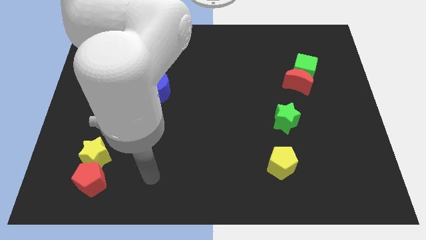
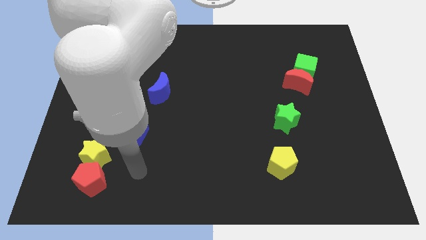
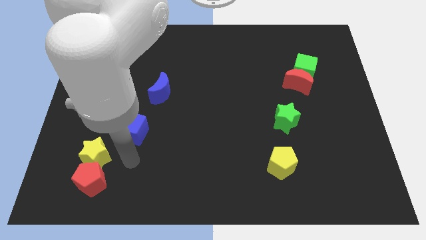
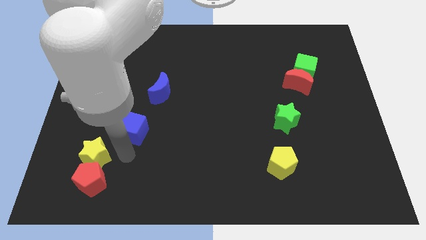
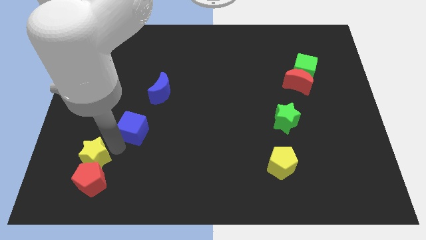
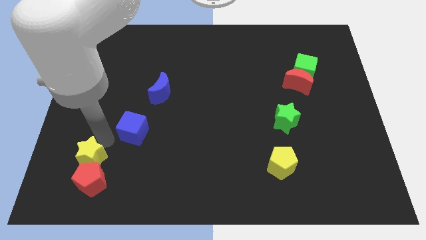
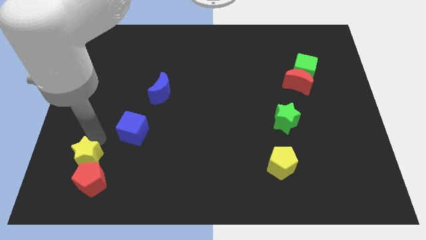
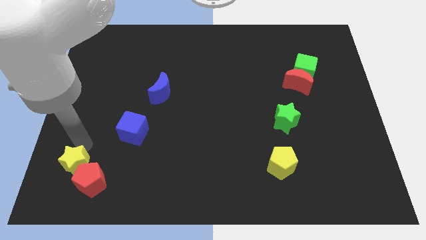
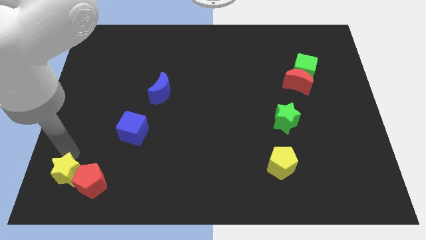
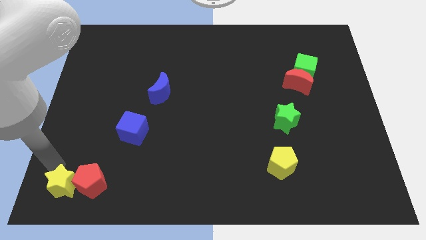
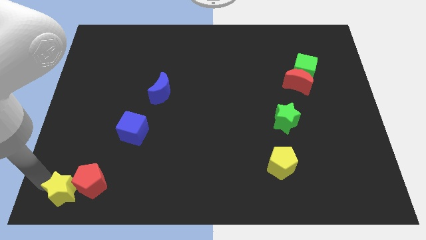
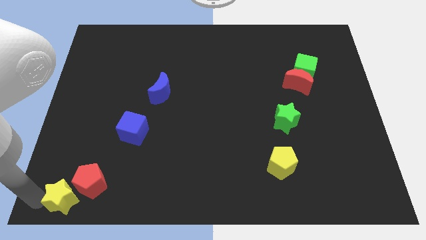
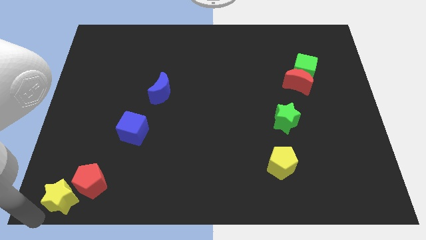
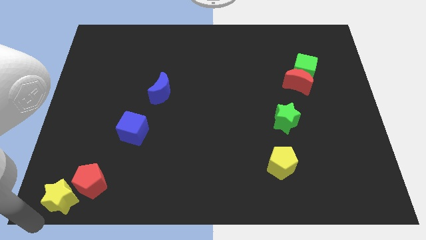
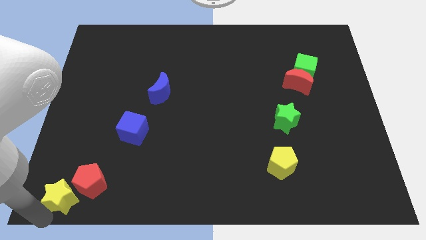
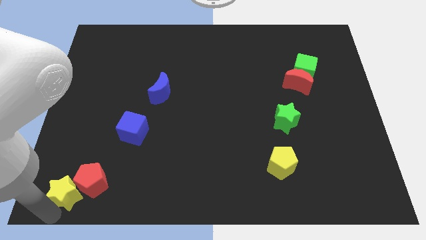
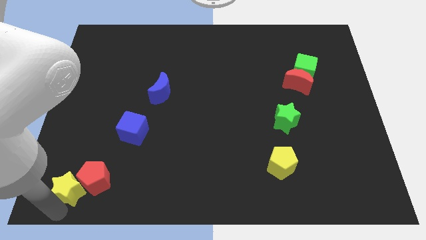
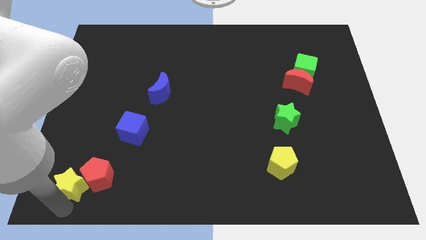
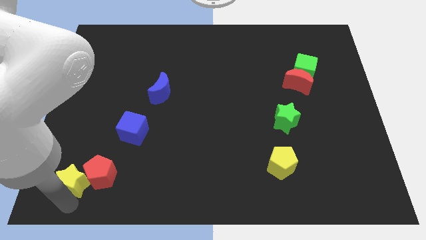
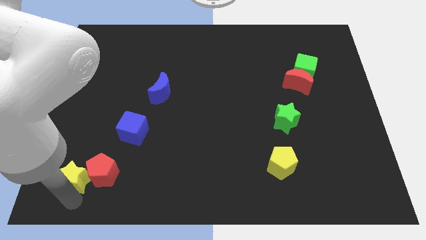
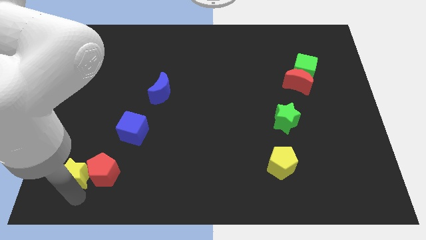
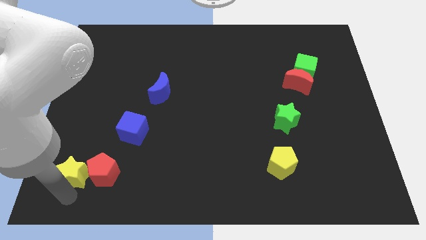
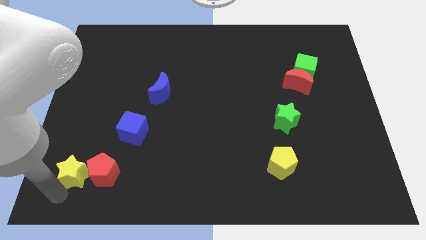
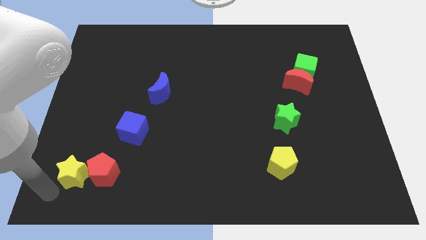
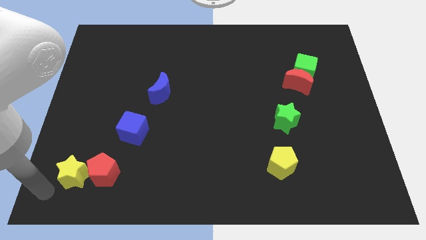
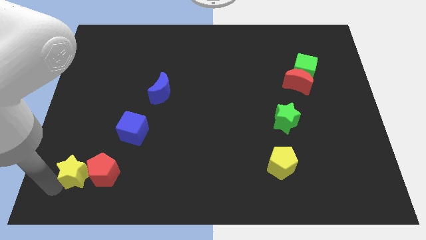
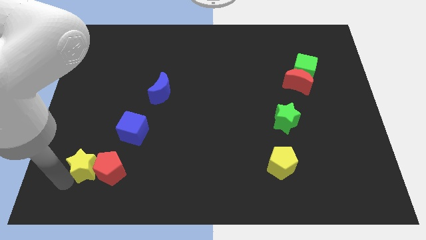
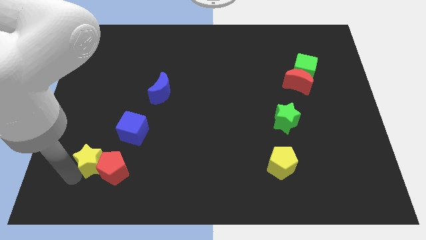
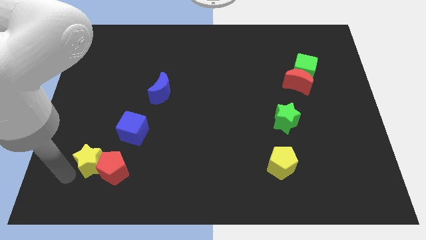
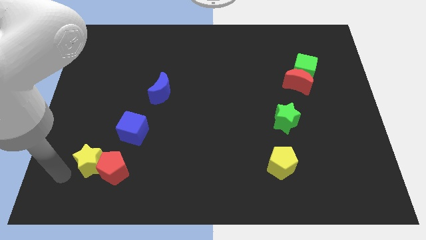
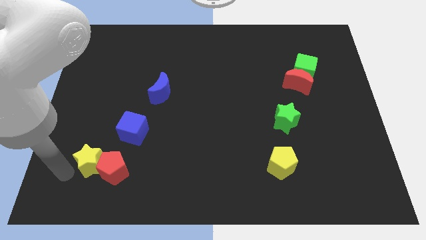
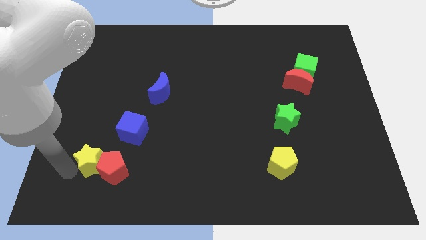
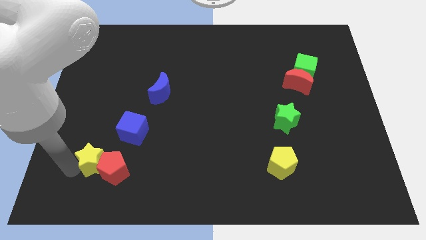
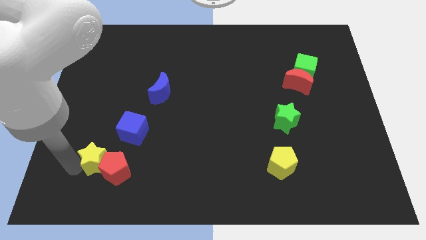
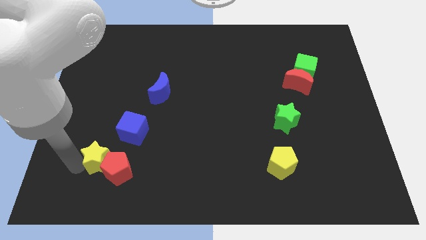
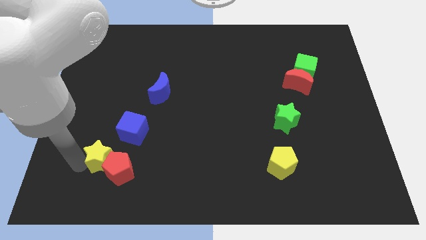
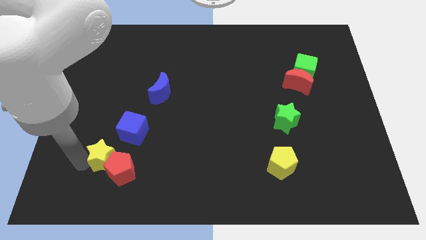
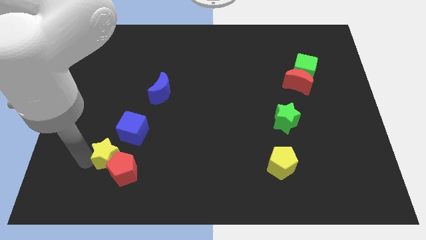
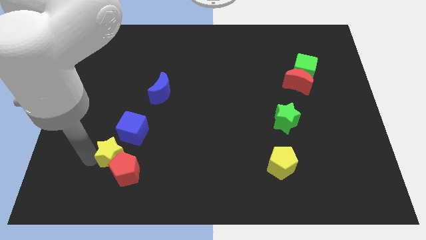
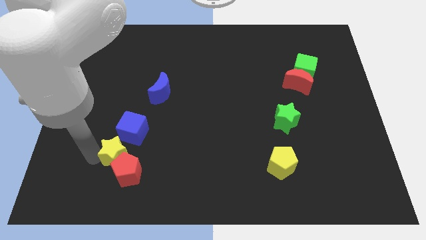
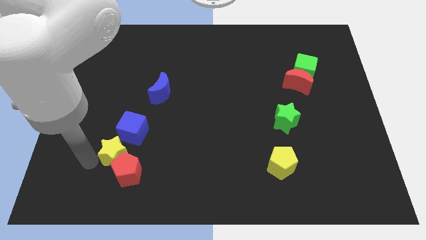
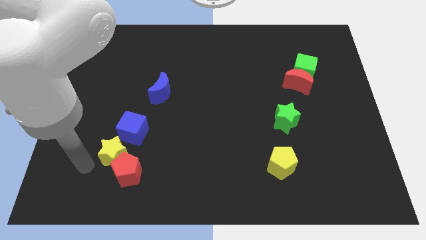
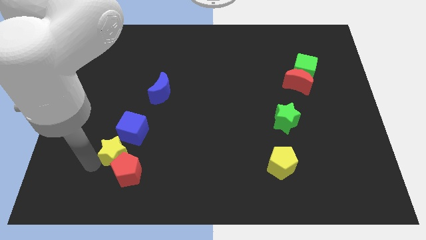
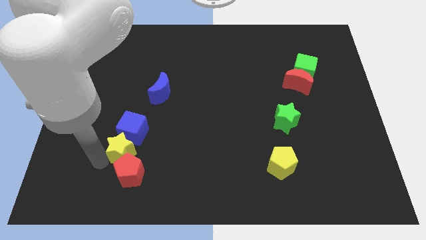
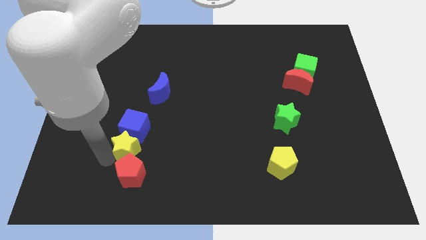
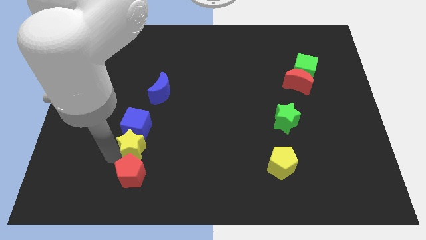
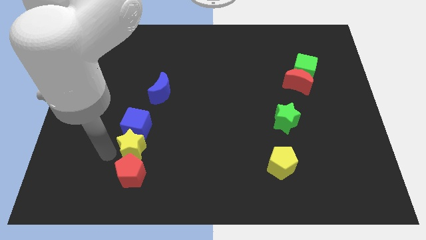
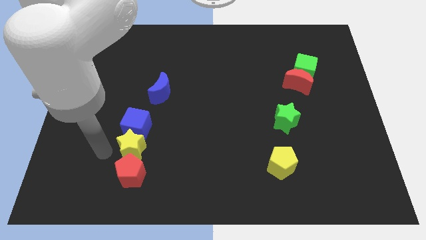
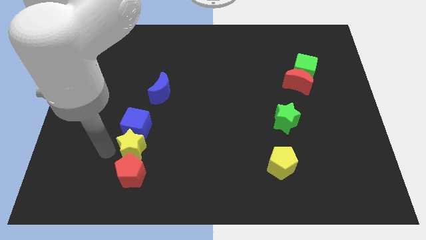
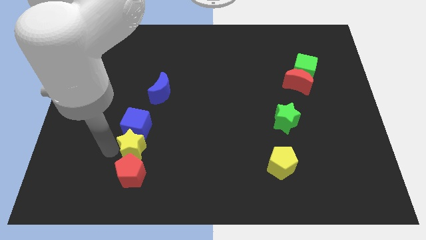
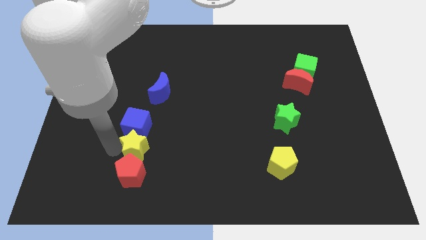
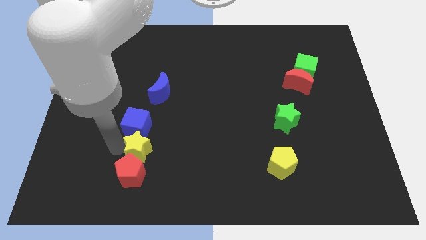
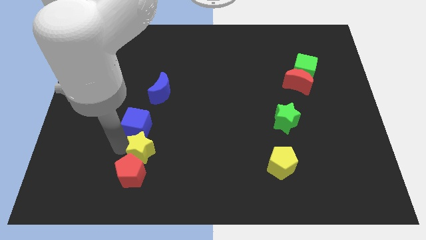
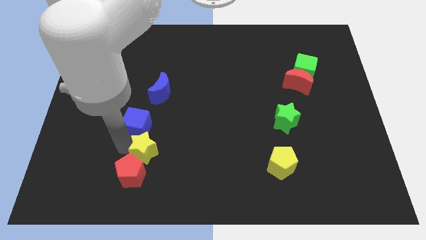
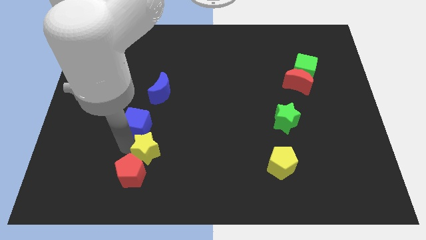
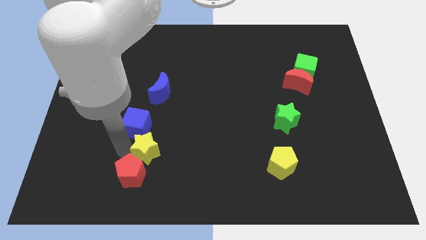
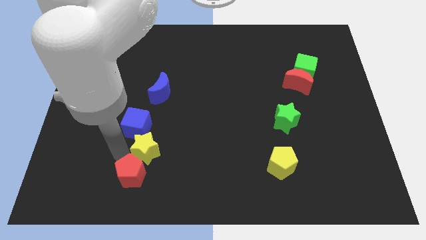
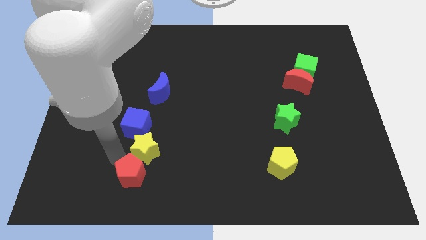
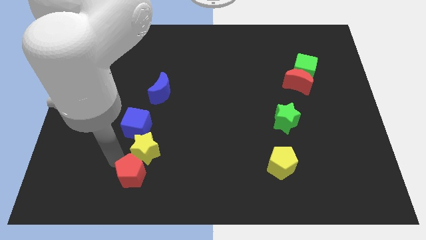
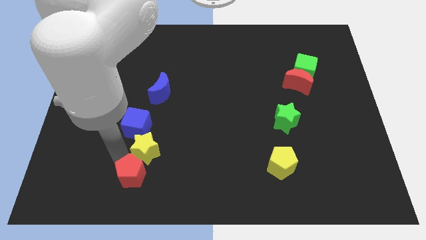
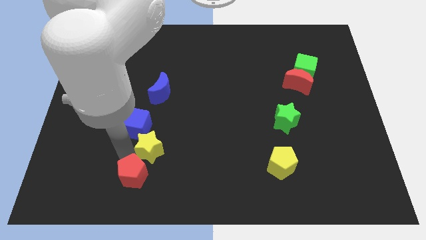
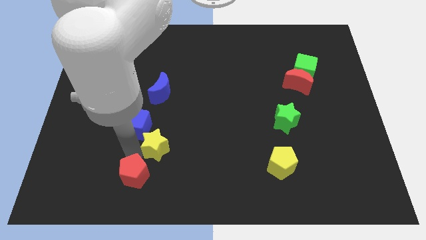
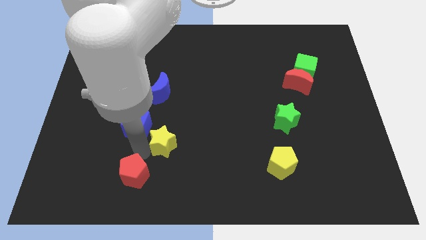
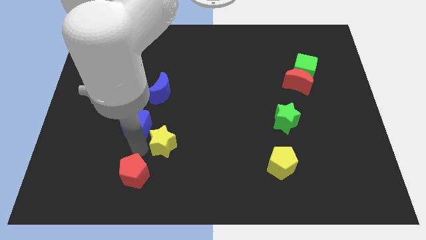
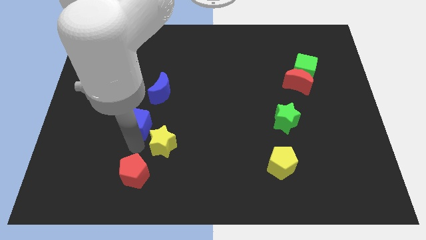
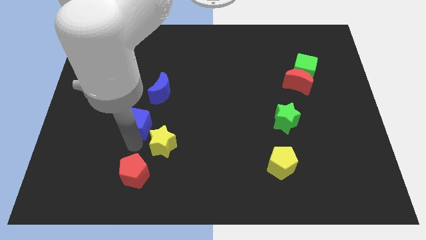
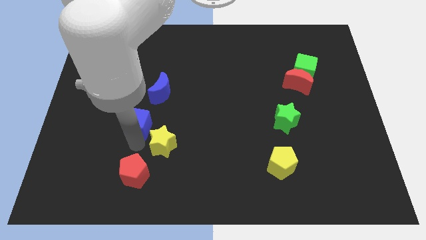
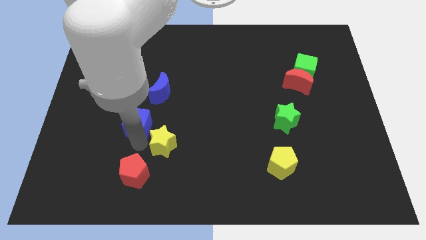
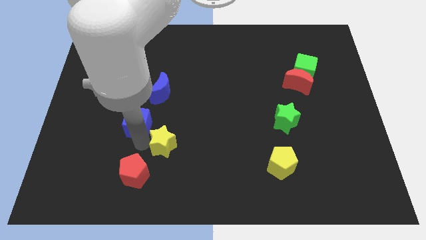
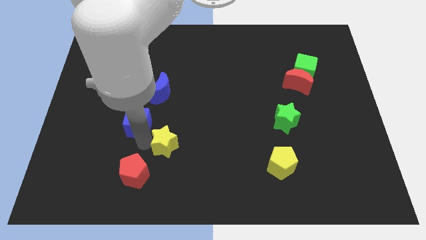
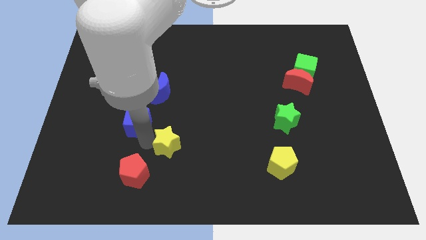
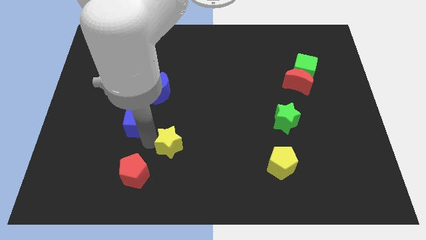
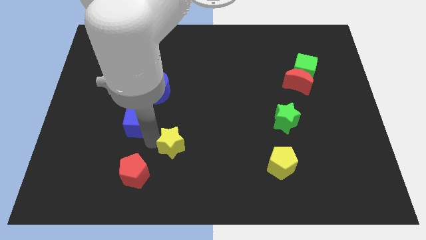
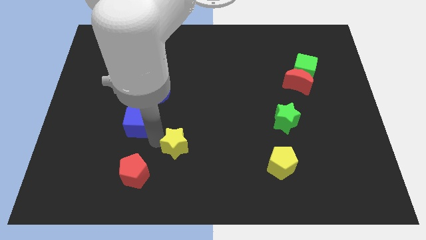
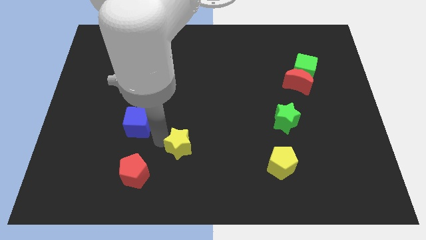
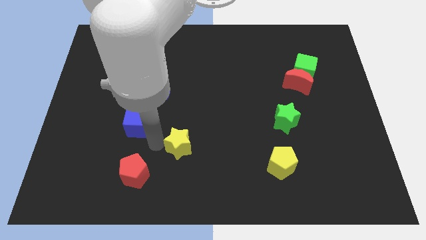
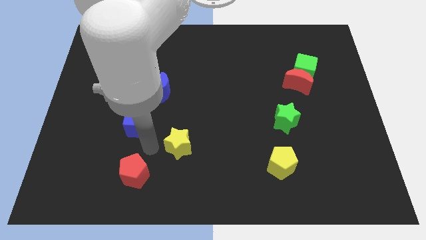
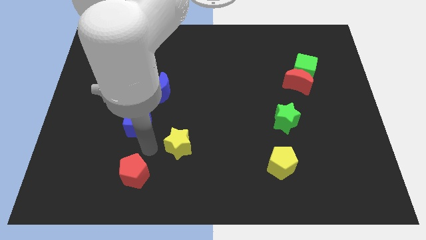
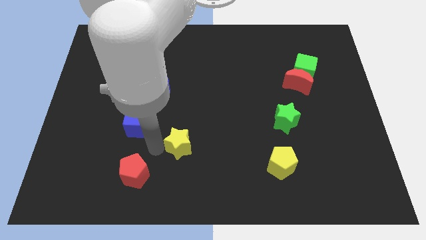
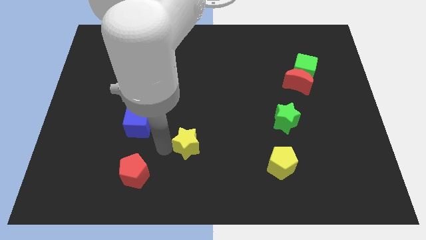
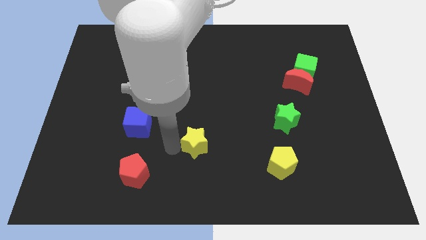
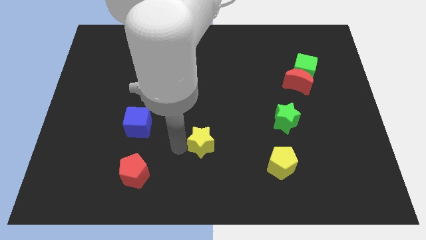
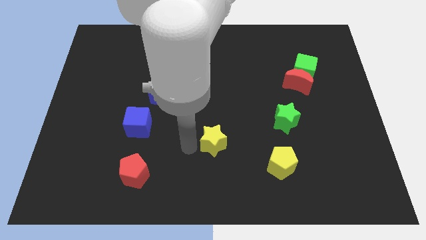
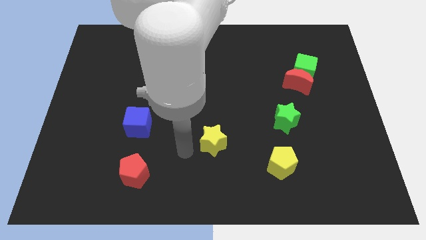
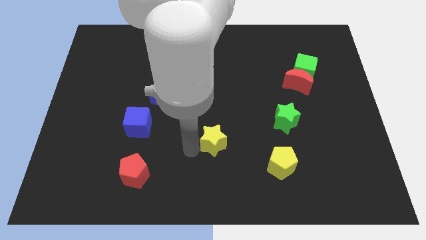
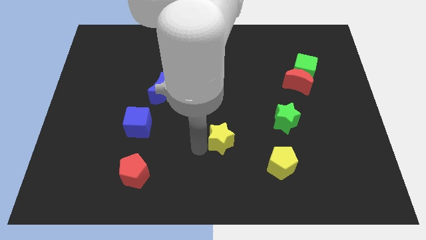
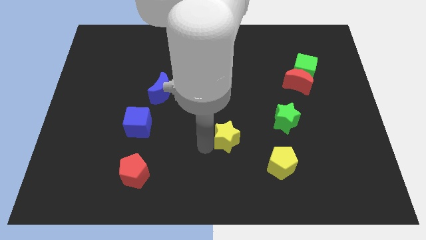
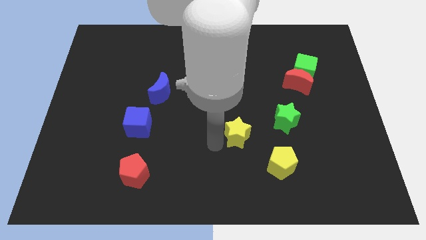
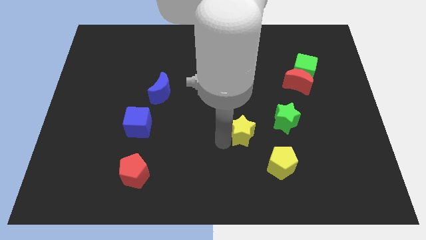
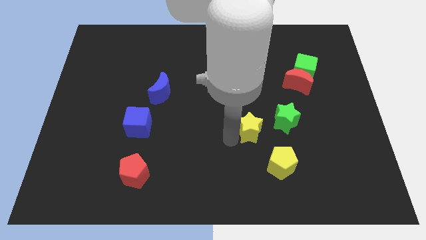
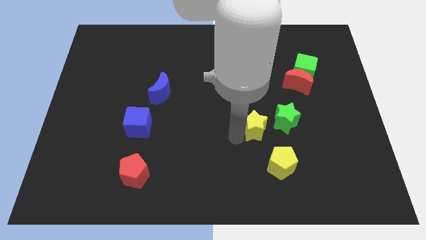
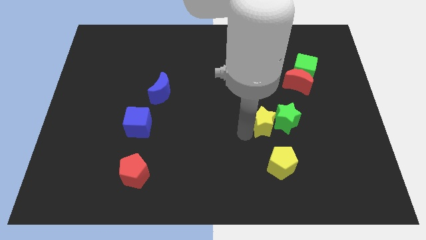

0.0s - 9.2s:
move the yellow star next to the green star
